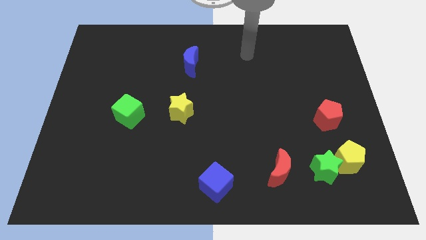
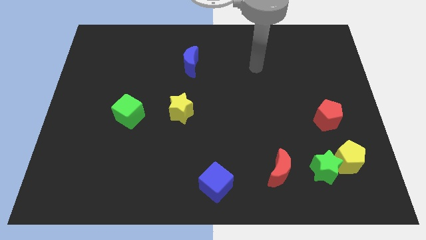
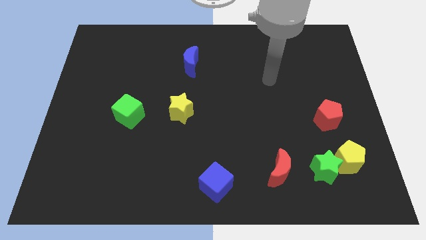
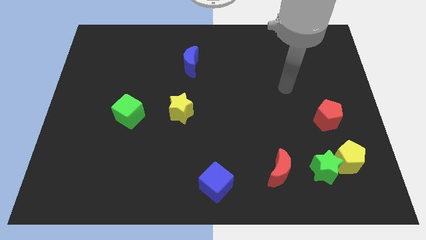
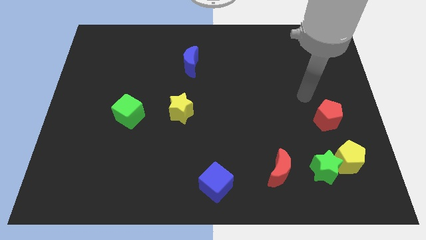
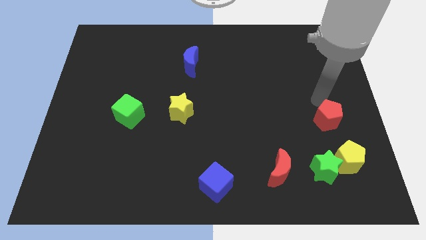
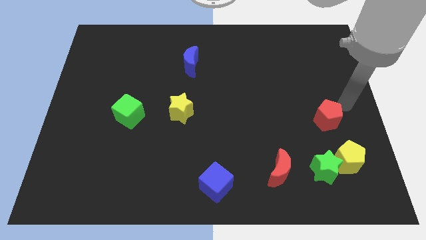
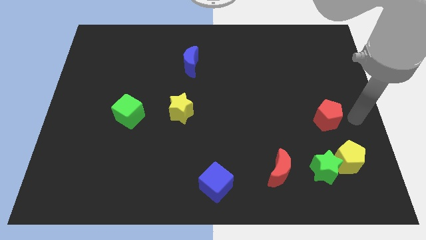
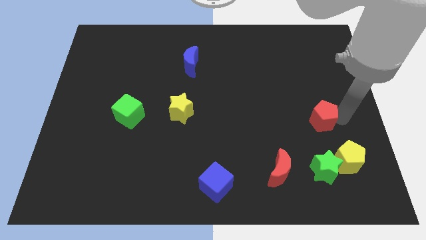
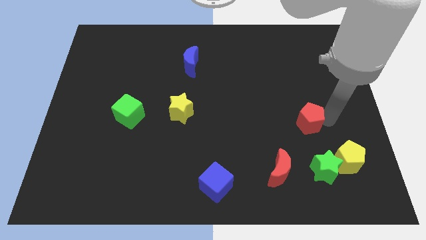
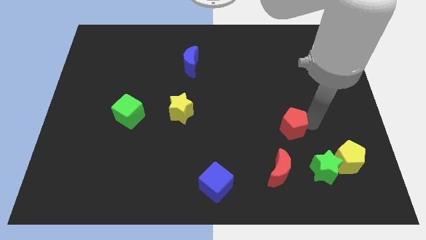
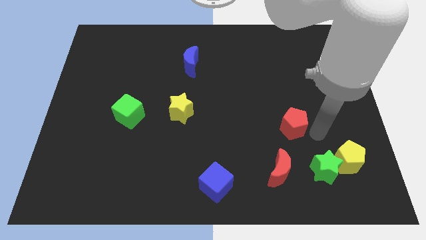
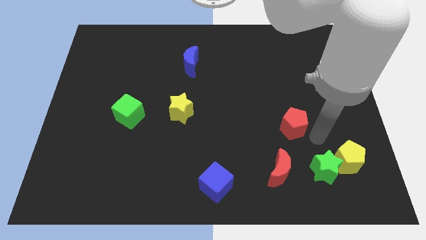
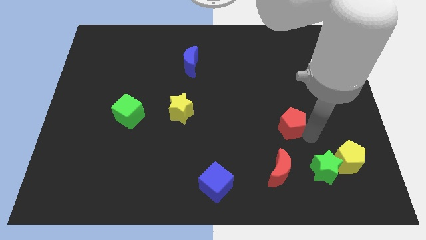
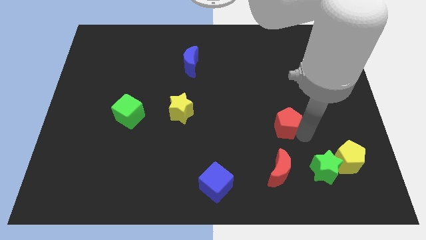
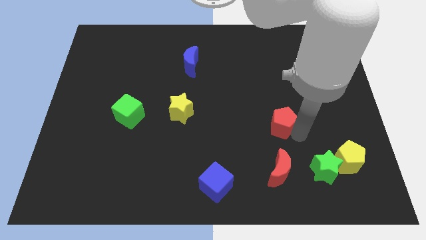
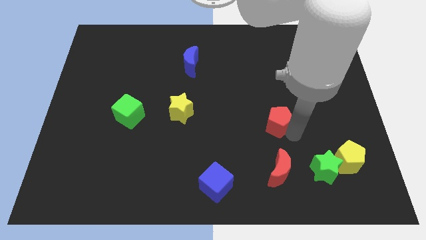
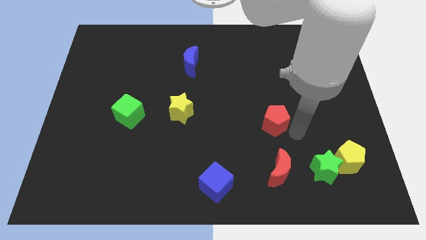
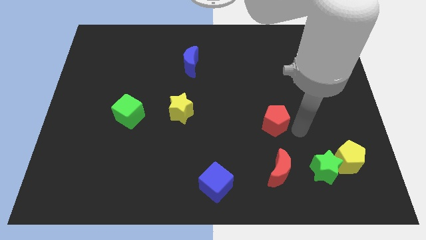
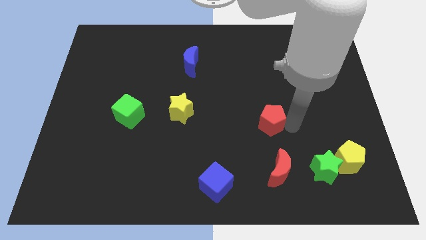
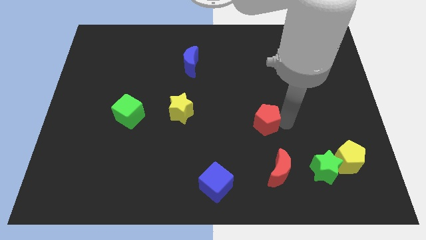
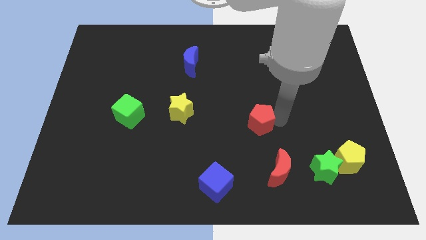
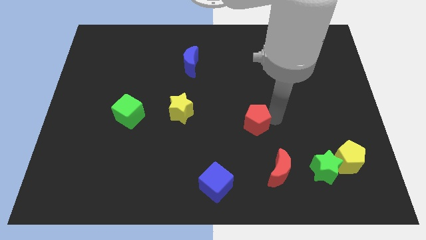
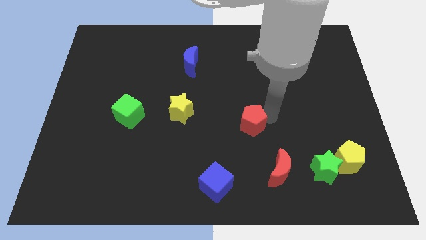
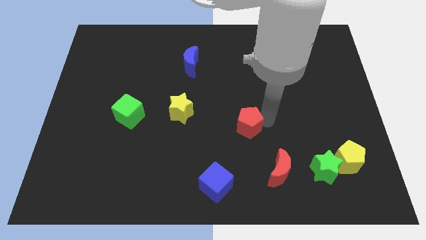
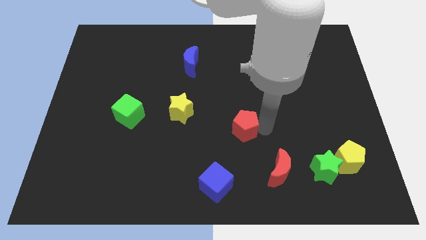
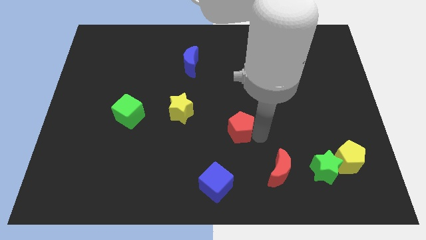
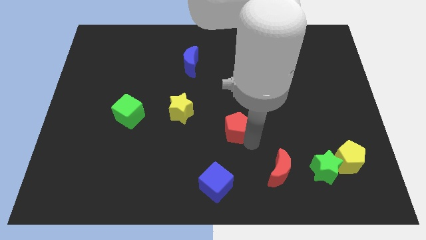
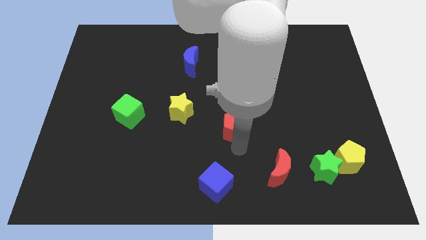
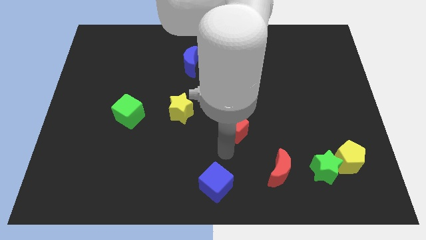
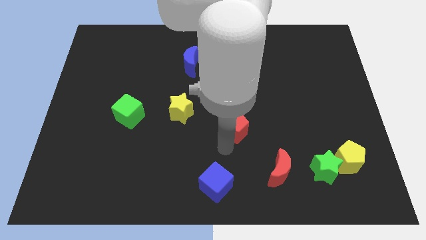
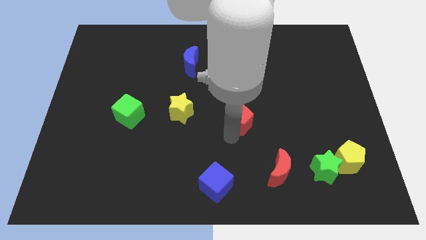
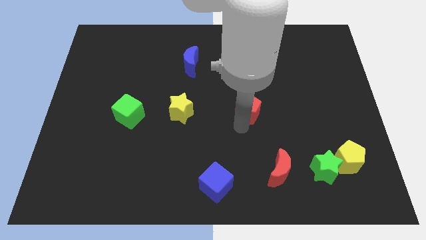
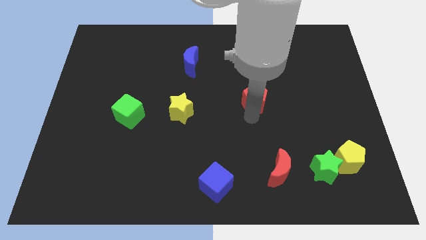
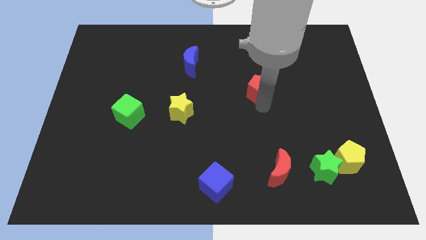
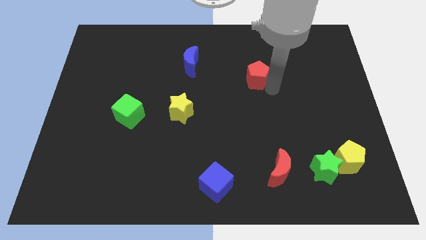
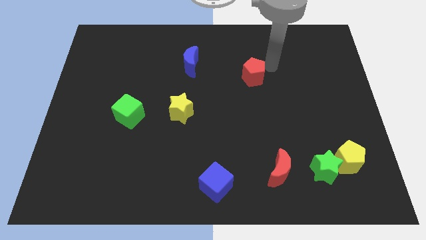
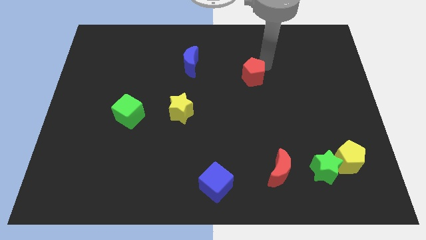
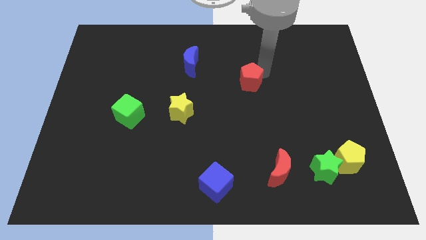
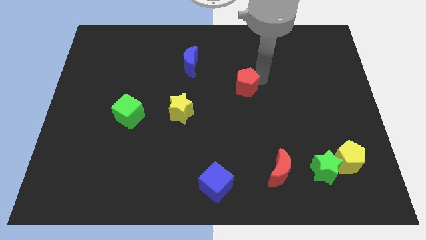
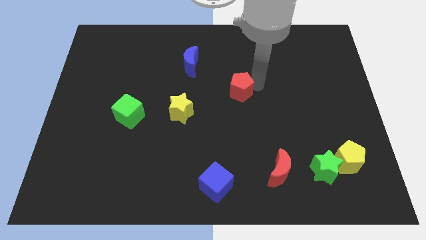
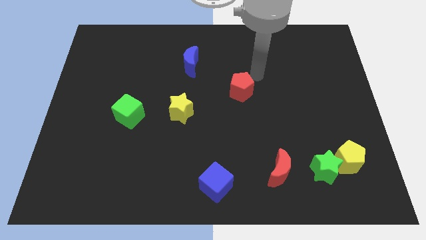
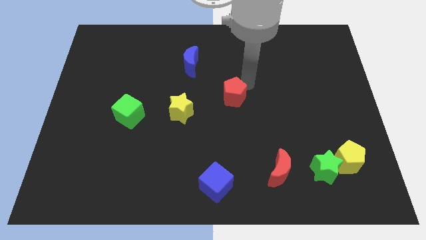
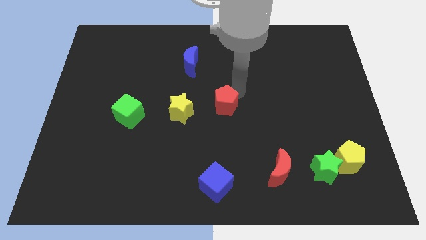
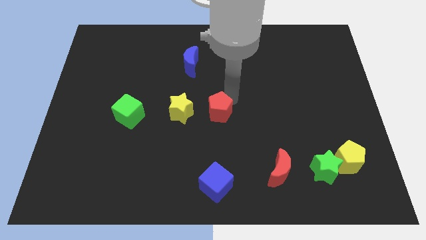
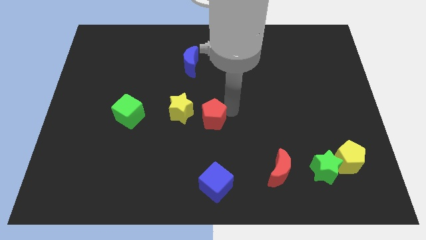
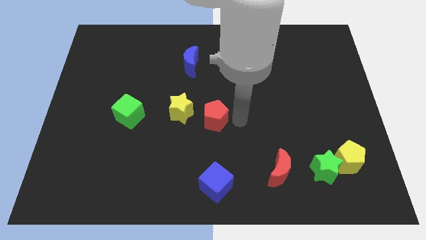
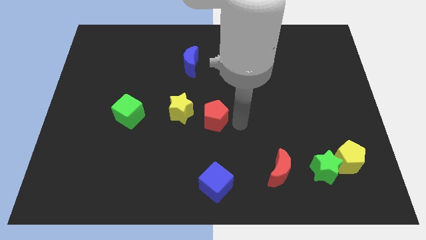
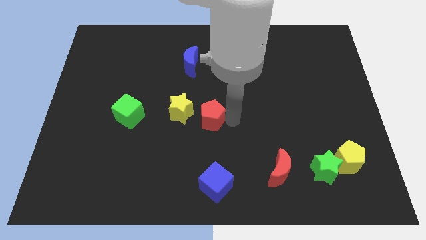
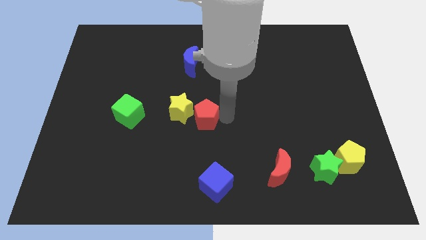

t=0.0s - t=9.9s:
push the red pentagon to the yellow star

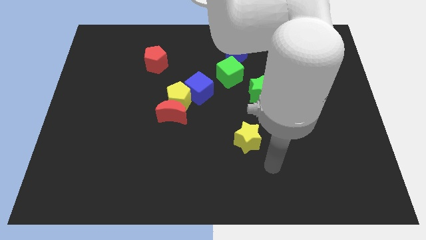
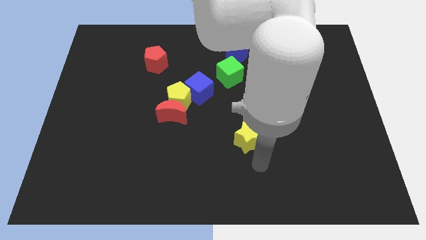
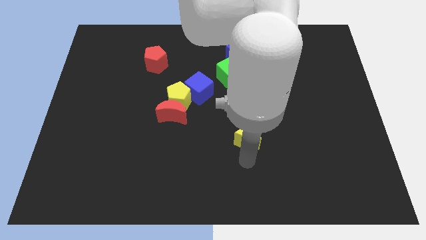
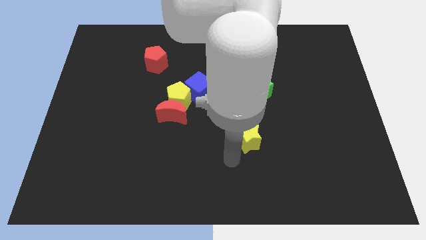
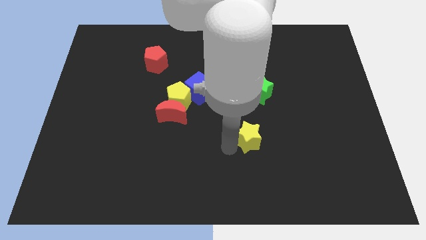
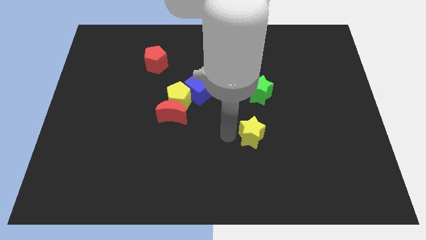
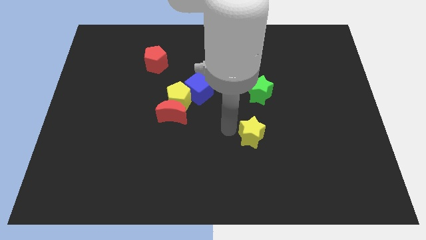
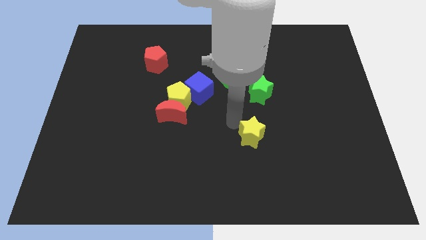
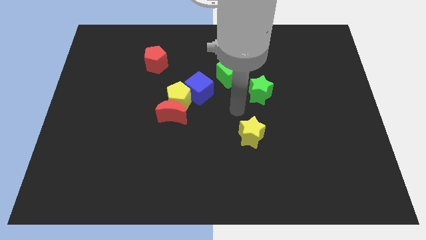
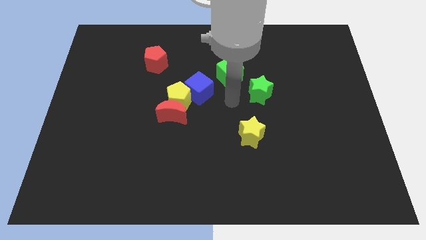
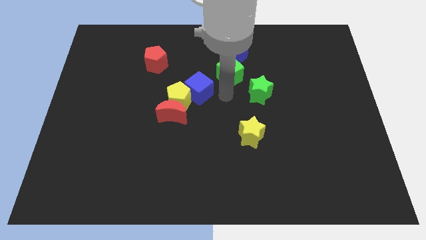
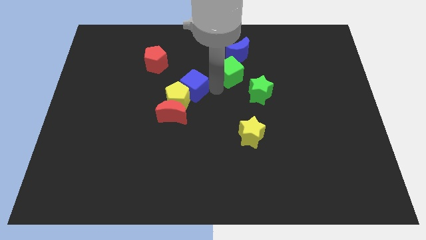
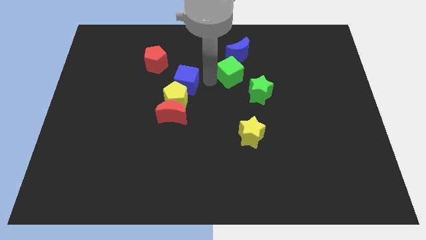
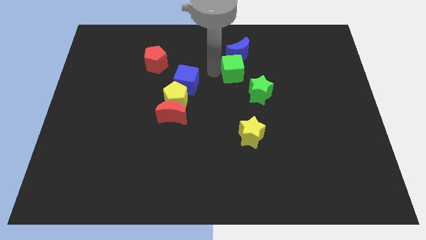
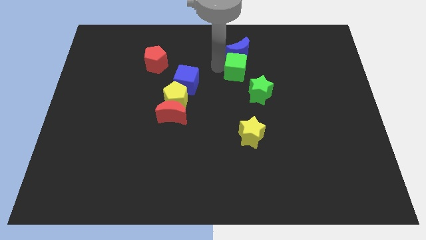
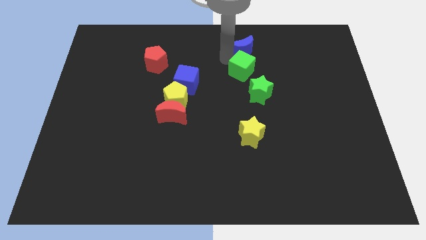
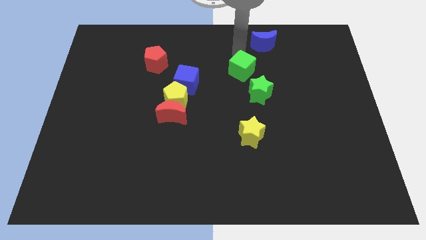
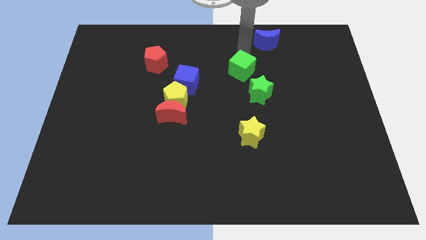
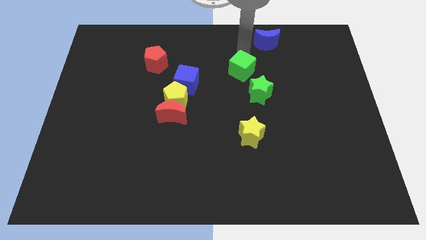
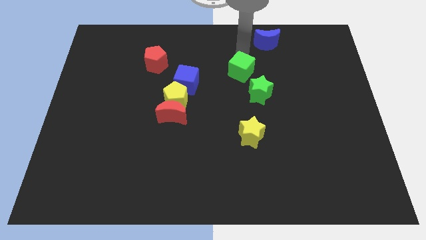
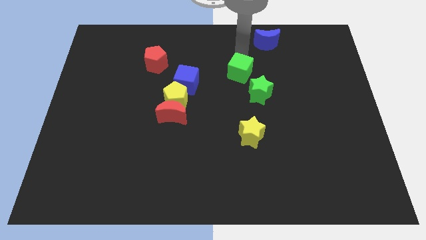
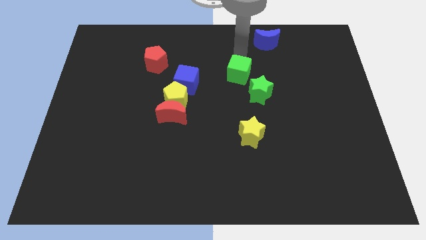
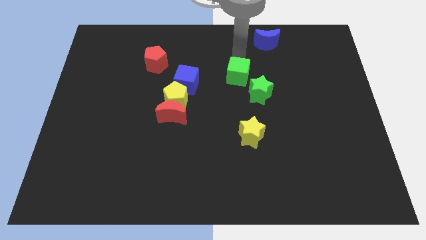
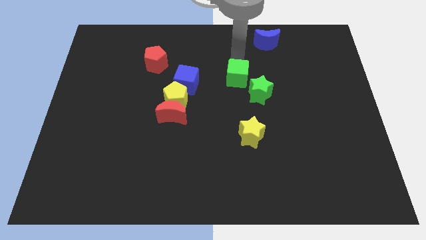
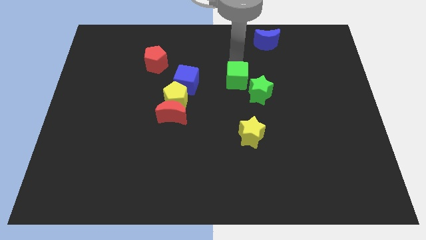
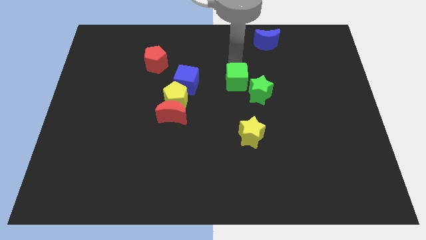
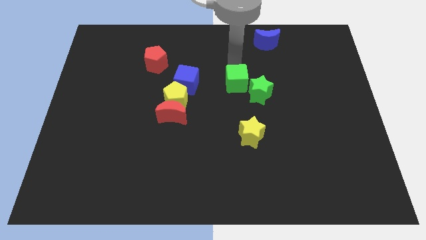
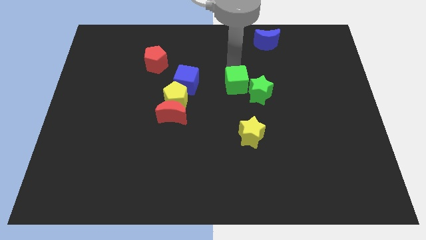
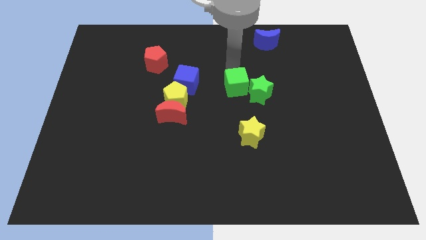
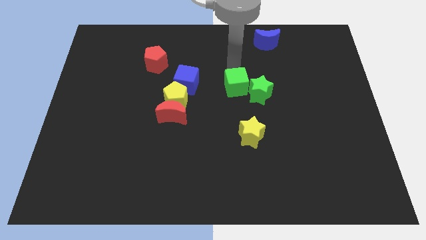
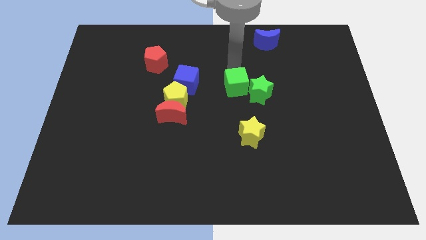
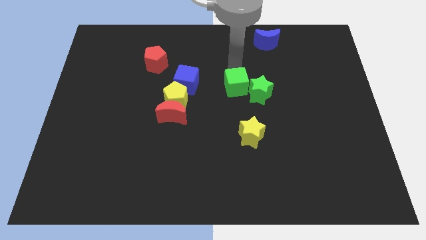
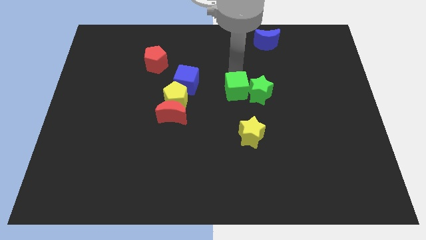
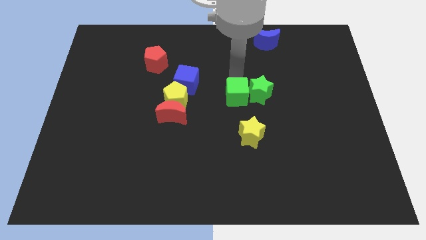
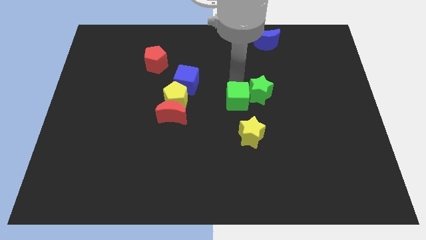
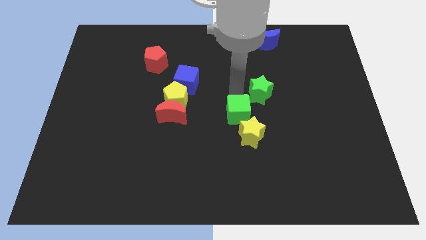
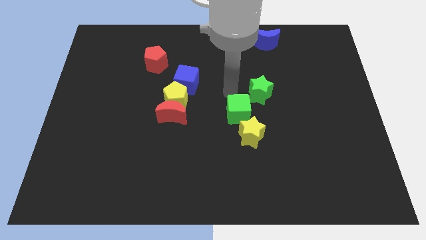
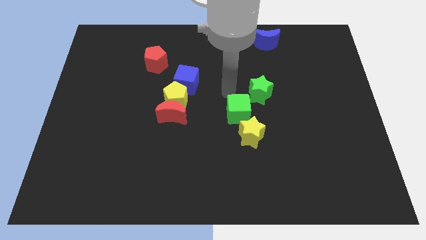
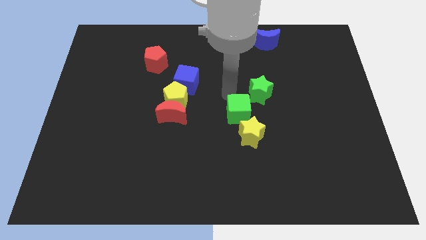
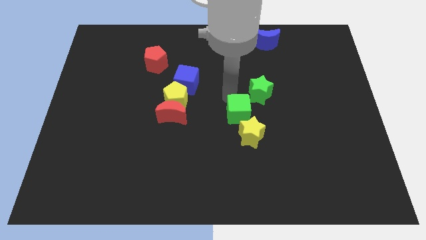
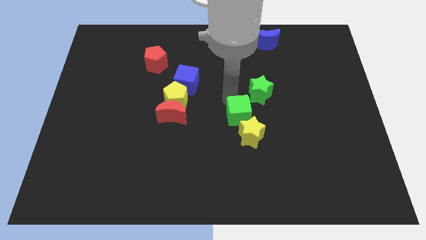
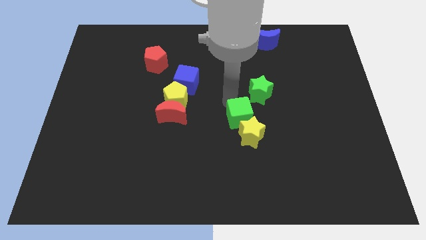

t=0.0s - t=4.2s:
put the green cube close to the yellow star
